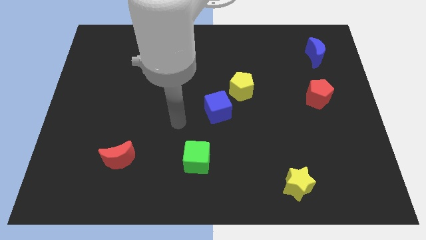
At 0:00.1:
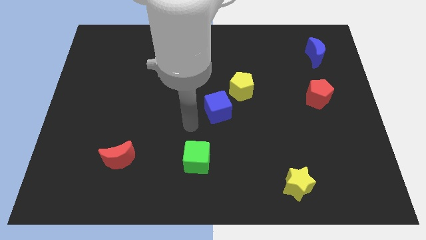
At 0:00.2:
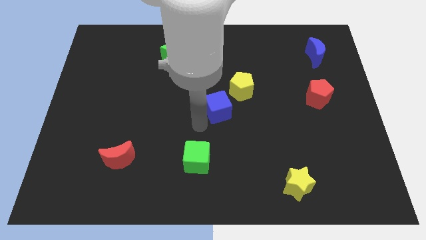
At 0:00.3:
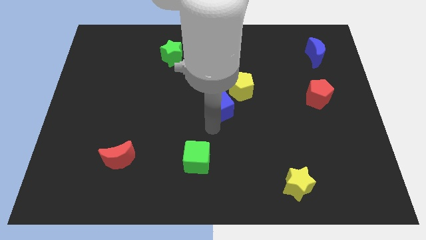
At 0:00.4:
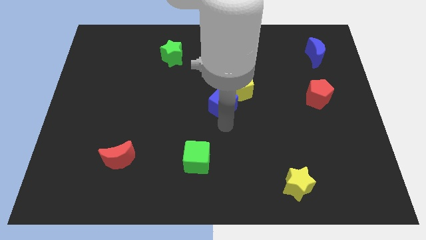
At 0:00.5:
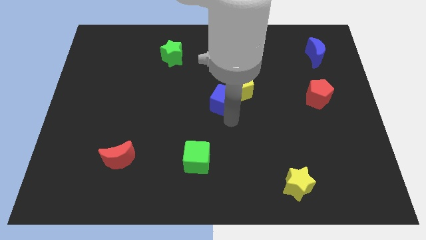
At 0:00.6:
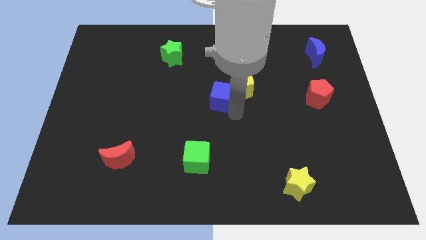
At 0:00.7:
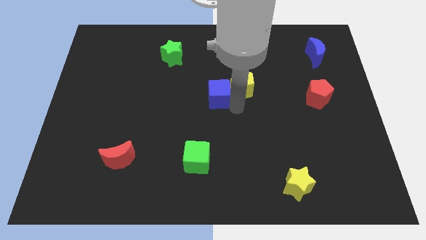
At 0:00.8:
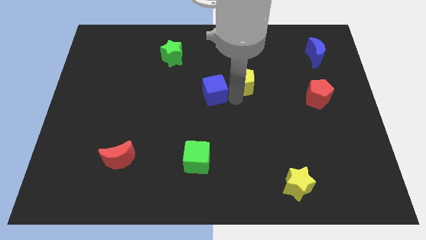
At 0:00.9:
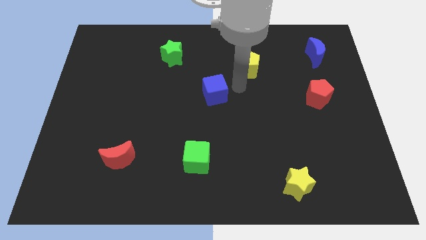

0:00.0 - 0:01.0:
separate the blue cube from the yellow pentagon

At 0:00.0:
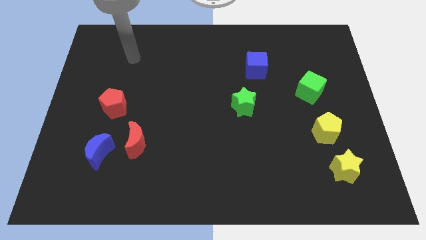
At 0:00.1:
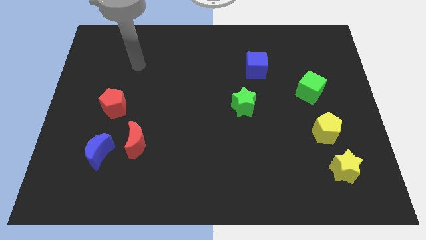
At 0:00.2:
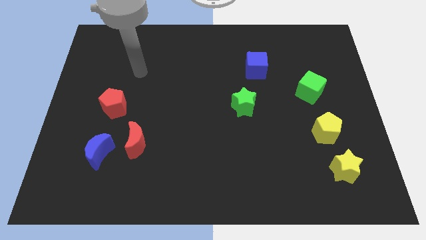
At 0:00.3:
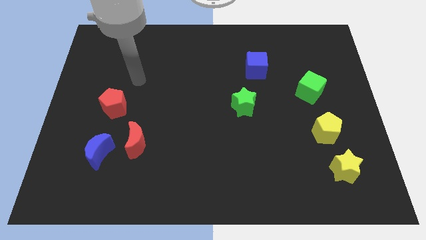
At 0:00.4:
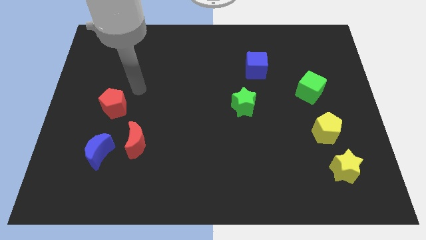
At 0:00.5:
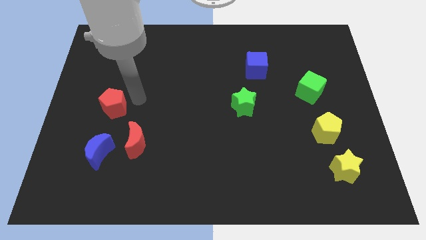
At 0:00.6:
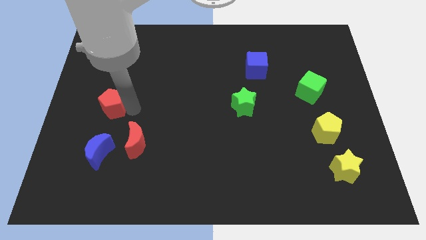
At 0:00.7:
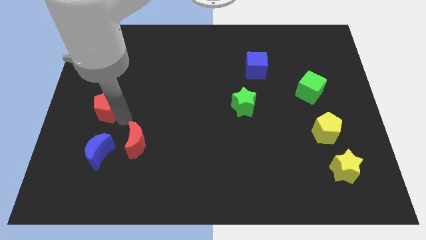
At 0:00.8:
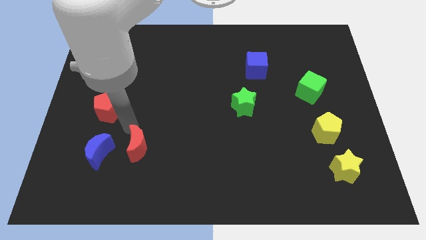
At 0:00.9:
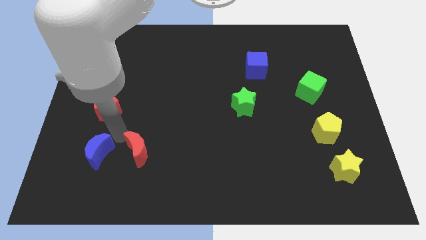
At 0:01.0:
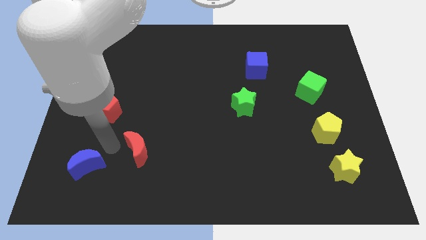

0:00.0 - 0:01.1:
move the red moon away from the blue moon

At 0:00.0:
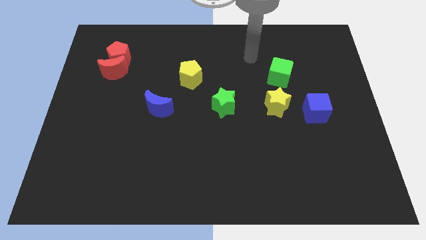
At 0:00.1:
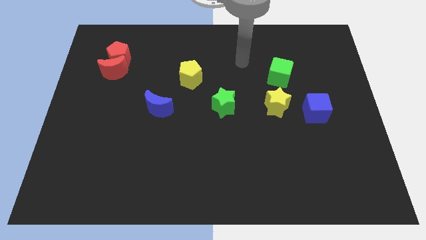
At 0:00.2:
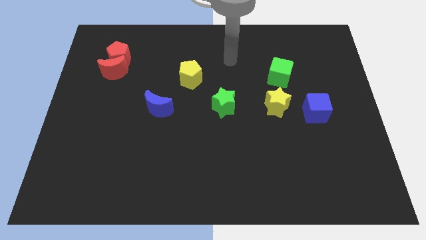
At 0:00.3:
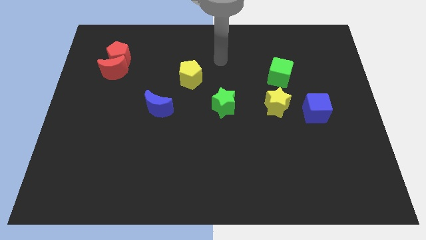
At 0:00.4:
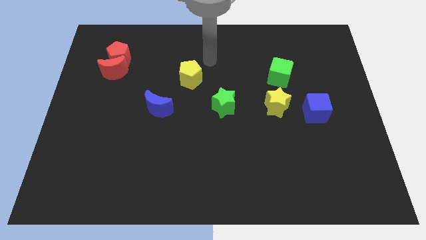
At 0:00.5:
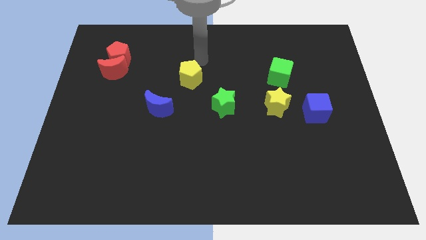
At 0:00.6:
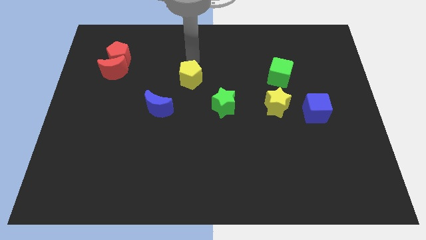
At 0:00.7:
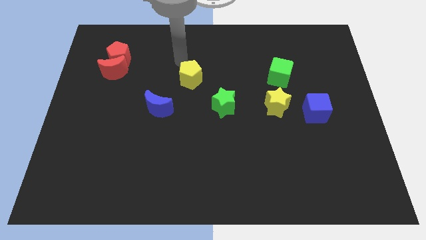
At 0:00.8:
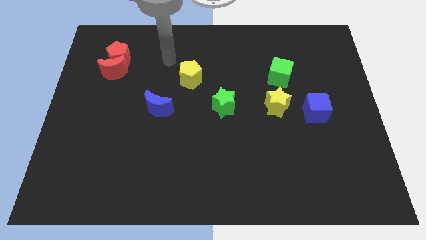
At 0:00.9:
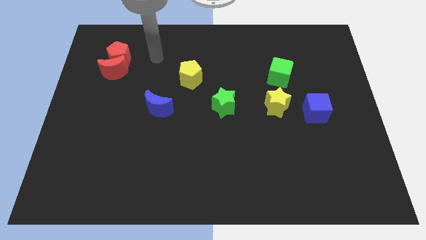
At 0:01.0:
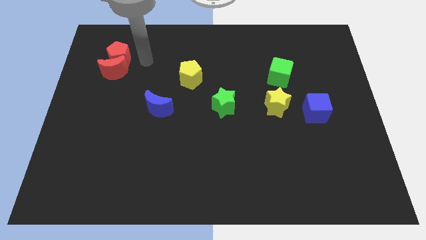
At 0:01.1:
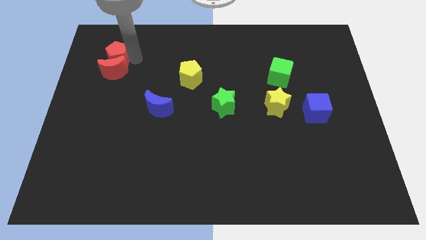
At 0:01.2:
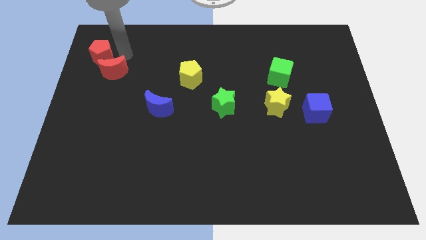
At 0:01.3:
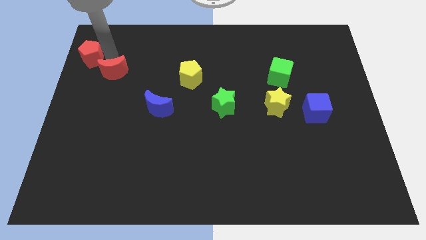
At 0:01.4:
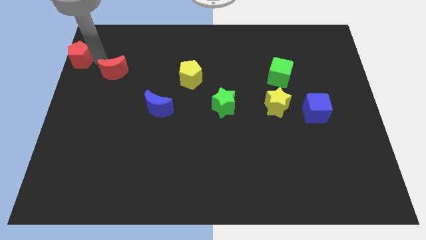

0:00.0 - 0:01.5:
move the red moon away from the red pentagon

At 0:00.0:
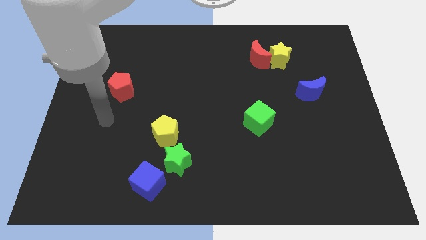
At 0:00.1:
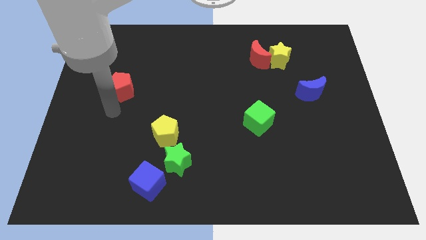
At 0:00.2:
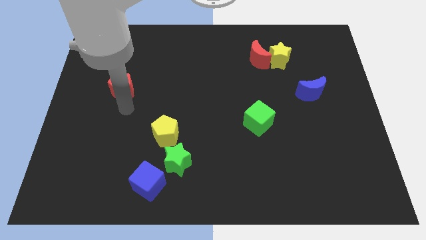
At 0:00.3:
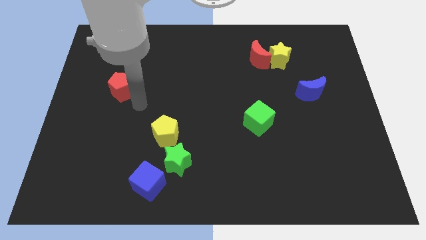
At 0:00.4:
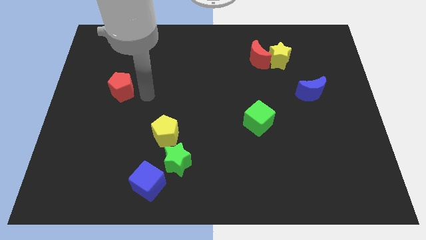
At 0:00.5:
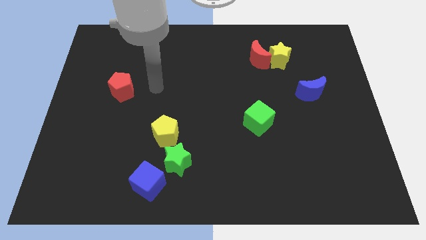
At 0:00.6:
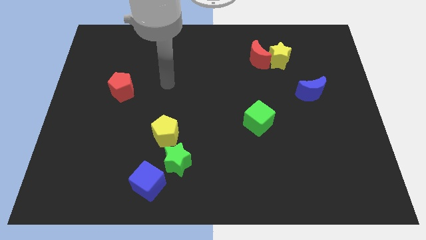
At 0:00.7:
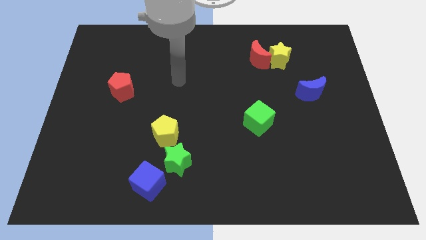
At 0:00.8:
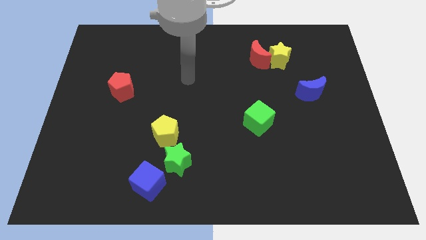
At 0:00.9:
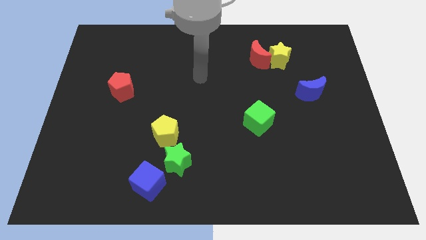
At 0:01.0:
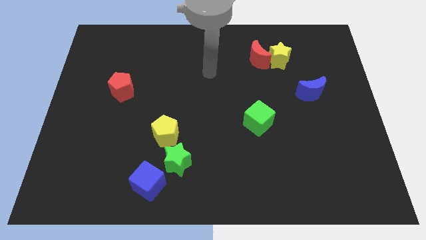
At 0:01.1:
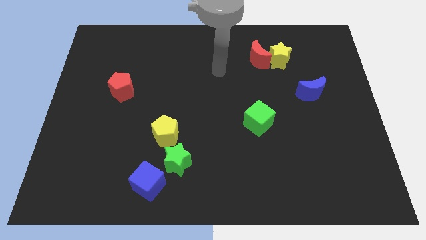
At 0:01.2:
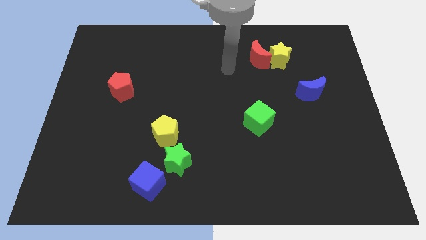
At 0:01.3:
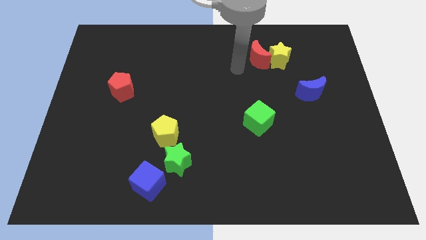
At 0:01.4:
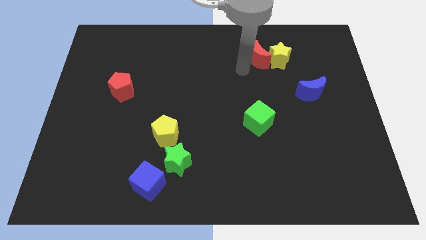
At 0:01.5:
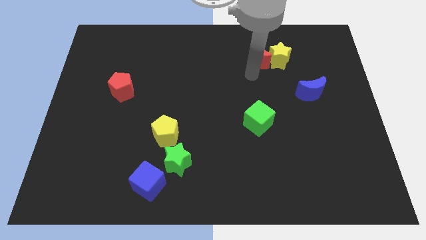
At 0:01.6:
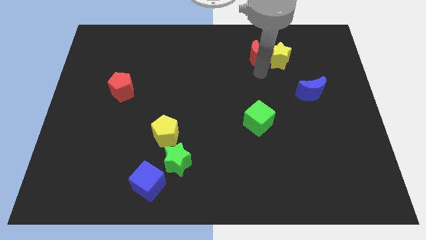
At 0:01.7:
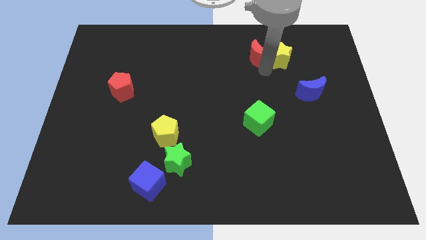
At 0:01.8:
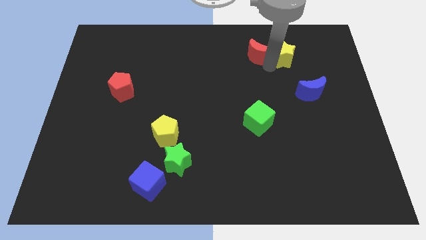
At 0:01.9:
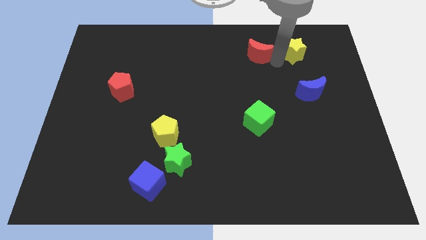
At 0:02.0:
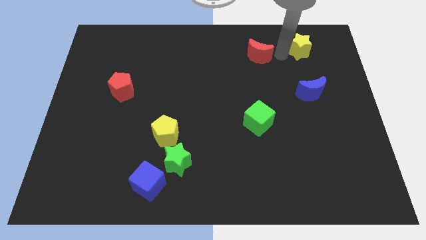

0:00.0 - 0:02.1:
pull the red moon apart from the yellow star

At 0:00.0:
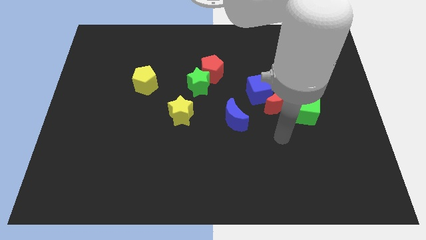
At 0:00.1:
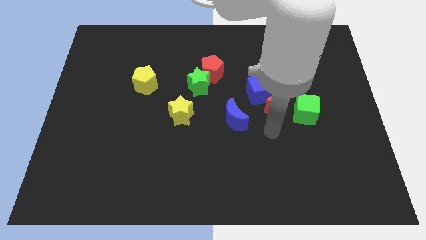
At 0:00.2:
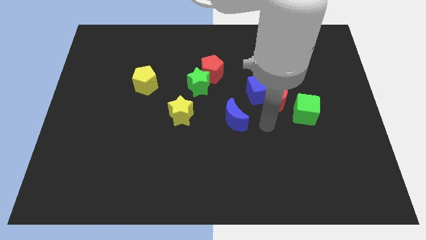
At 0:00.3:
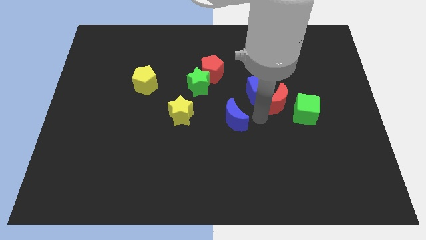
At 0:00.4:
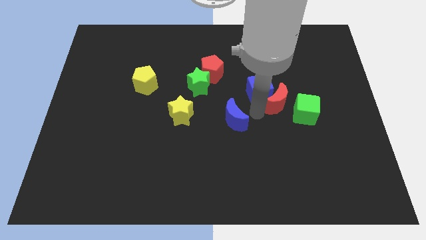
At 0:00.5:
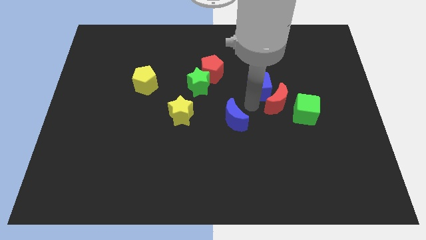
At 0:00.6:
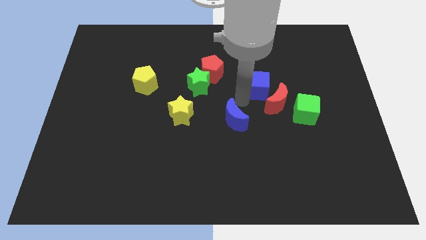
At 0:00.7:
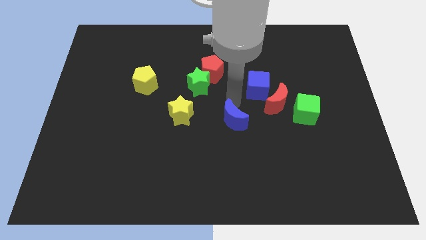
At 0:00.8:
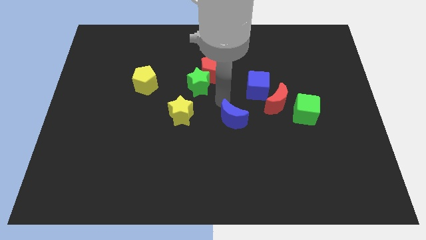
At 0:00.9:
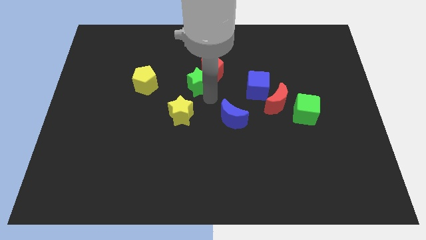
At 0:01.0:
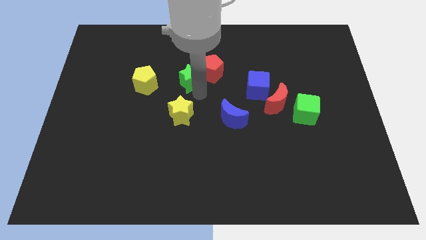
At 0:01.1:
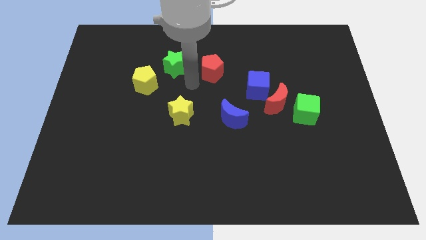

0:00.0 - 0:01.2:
move the red pentagon away from the green star

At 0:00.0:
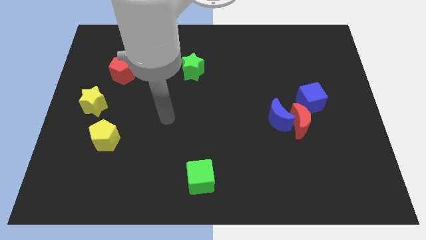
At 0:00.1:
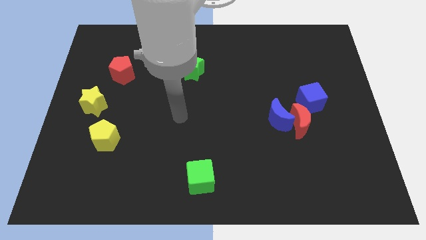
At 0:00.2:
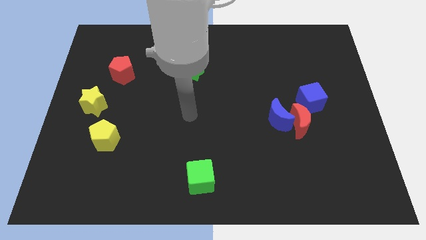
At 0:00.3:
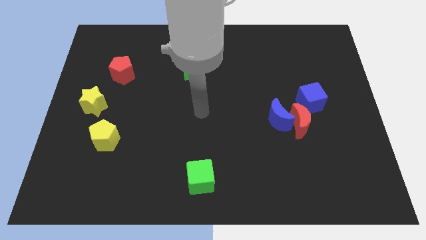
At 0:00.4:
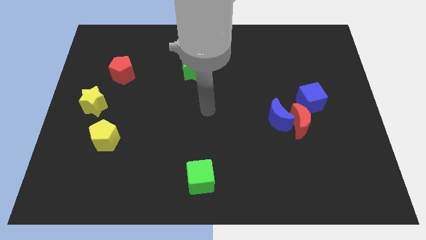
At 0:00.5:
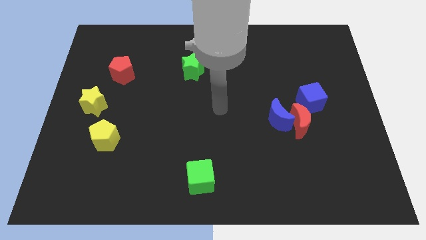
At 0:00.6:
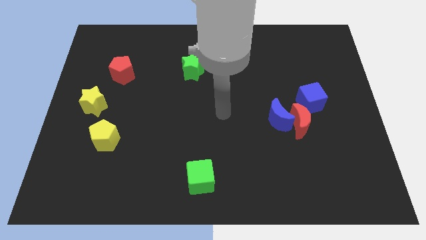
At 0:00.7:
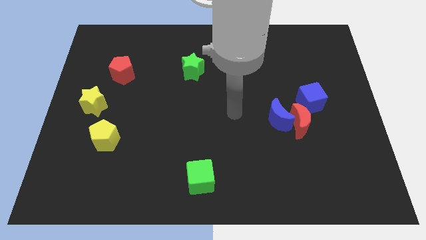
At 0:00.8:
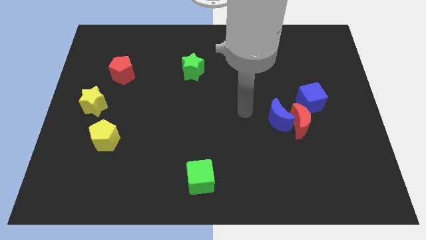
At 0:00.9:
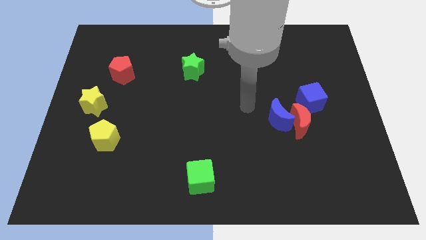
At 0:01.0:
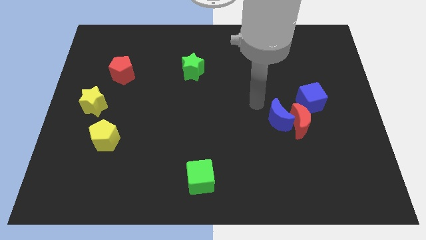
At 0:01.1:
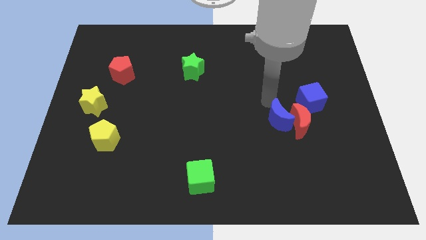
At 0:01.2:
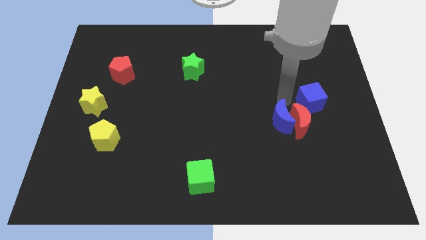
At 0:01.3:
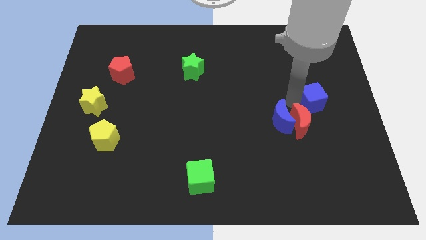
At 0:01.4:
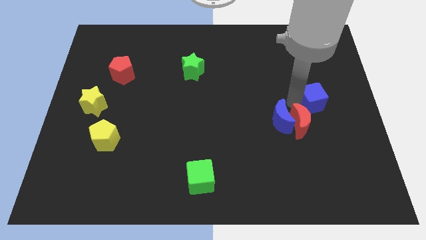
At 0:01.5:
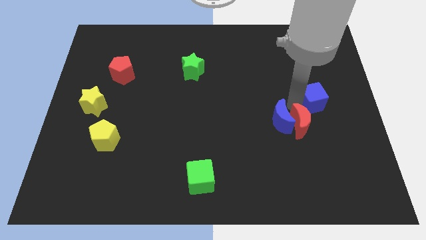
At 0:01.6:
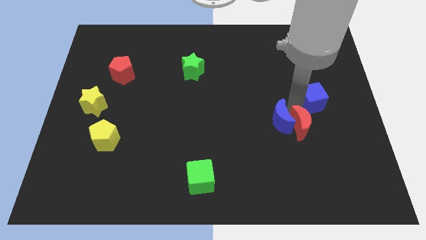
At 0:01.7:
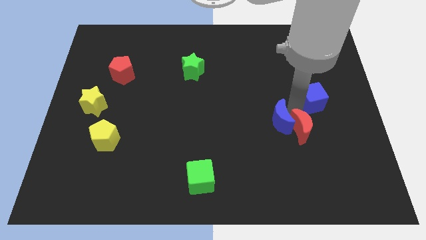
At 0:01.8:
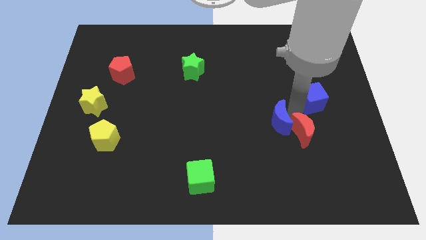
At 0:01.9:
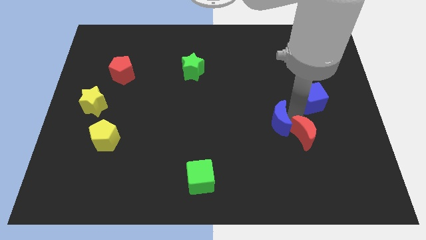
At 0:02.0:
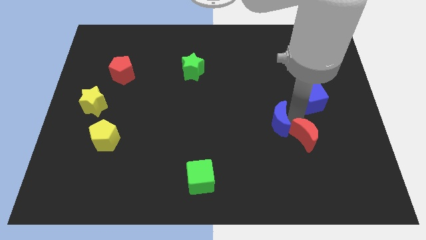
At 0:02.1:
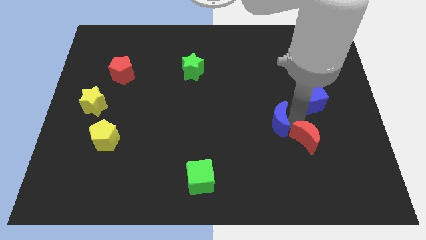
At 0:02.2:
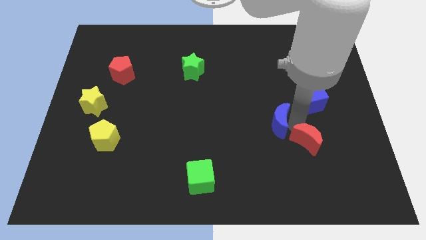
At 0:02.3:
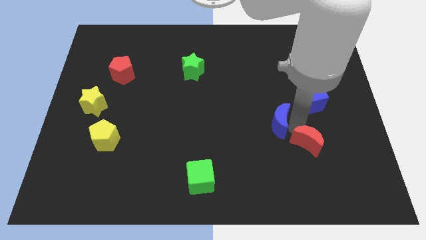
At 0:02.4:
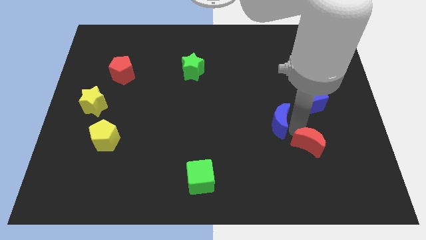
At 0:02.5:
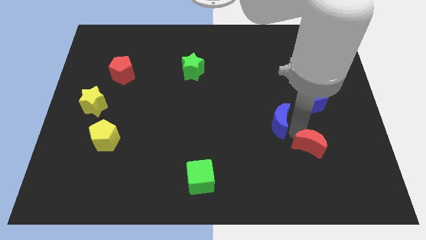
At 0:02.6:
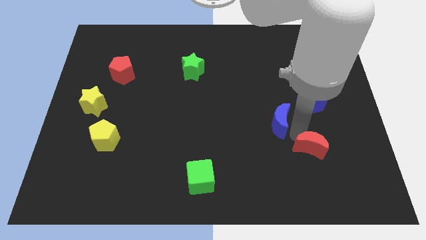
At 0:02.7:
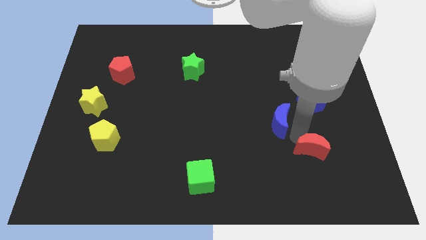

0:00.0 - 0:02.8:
pull the red moon apart from the blue moon and blue cube
